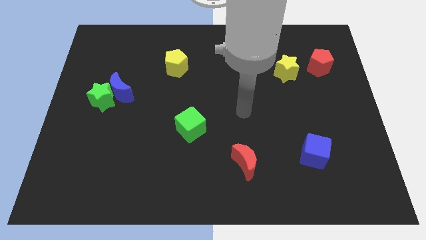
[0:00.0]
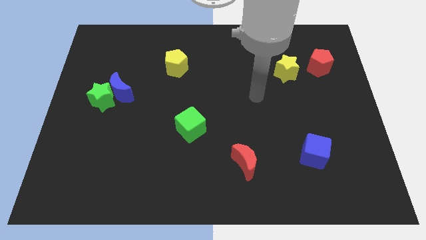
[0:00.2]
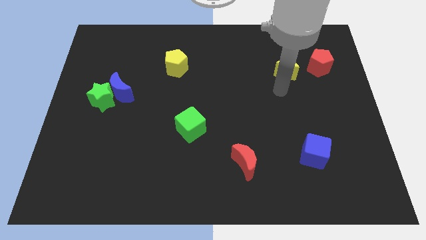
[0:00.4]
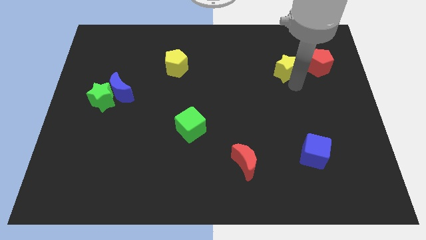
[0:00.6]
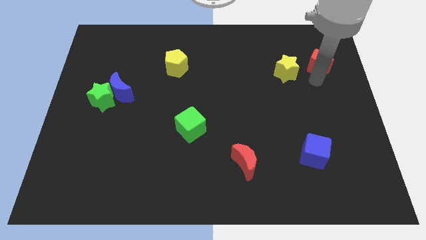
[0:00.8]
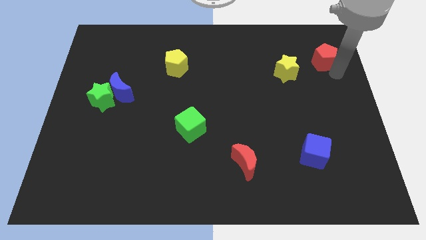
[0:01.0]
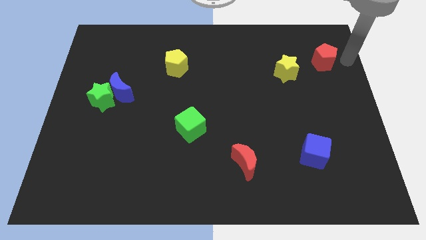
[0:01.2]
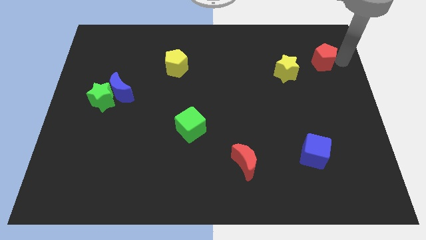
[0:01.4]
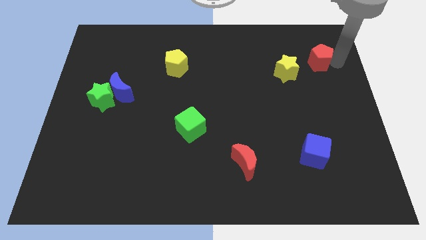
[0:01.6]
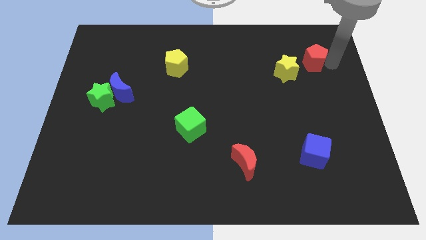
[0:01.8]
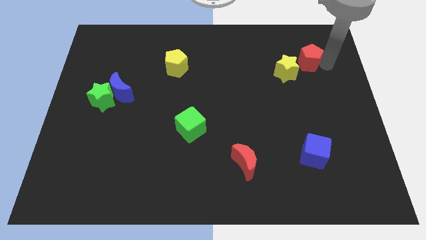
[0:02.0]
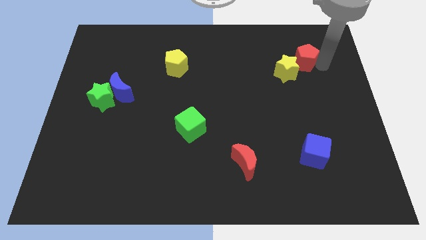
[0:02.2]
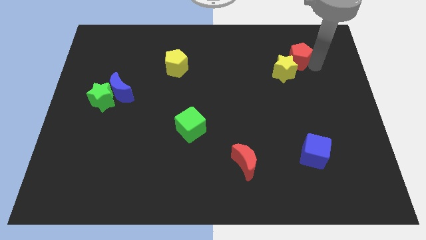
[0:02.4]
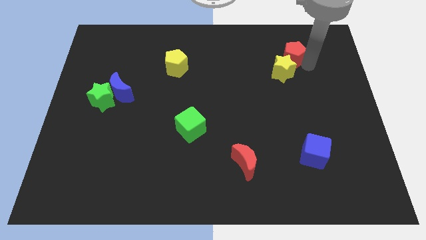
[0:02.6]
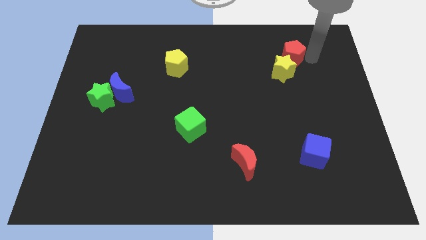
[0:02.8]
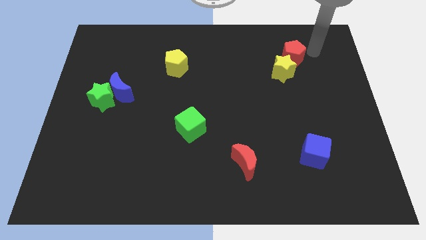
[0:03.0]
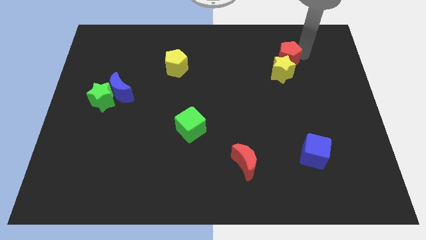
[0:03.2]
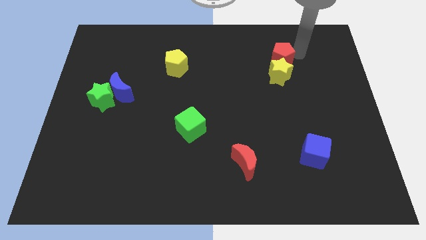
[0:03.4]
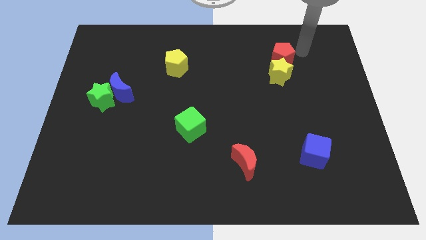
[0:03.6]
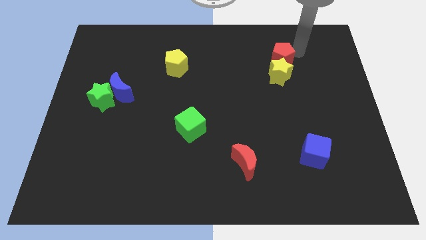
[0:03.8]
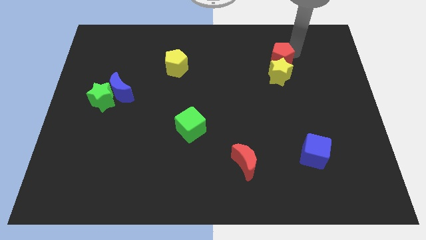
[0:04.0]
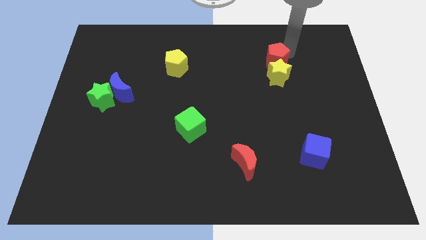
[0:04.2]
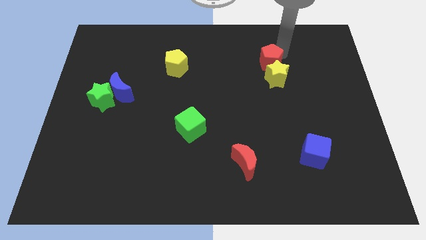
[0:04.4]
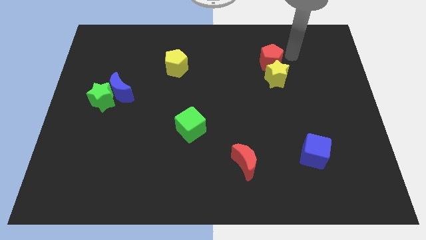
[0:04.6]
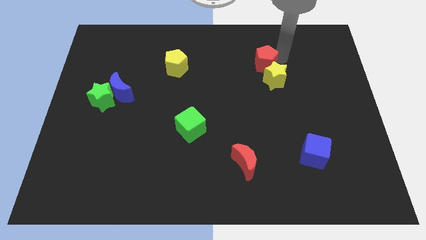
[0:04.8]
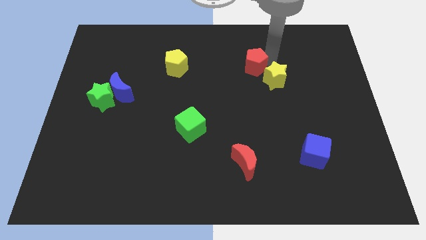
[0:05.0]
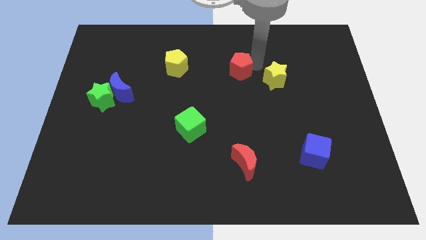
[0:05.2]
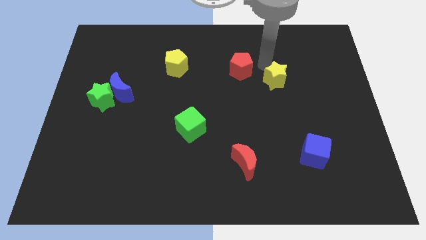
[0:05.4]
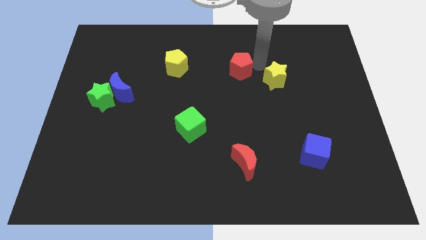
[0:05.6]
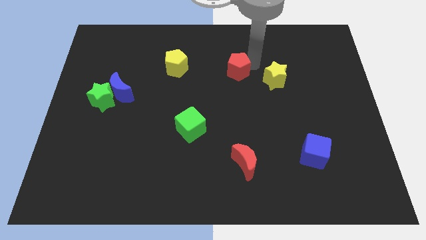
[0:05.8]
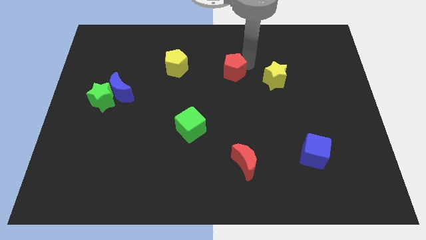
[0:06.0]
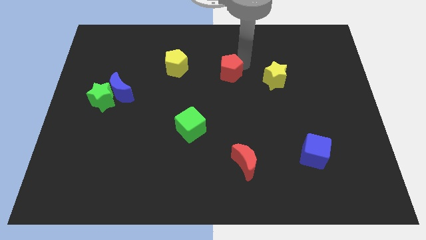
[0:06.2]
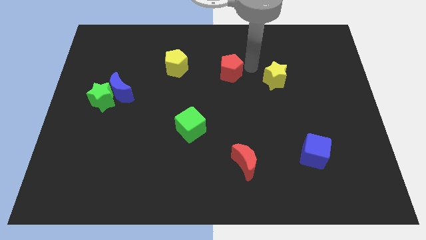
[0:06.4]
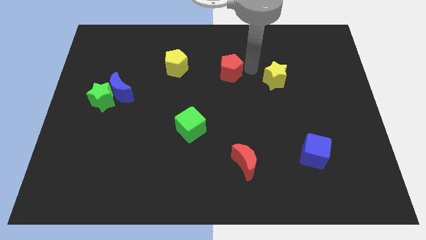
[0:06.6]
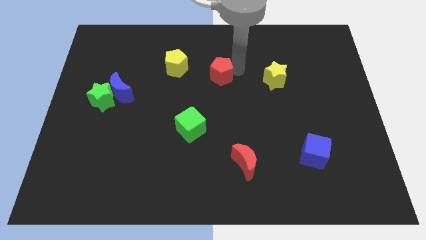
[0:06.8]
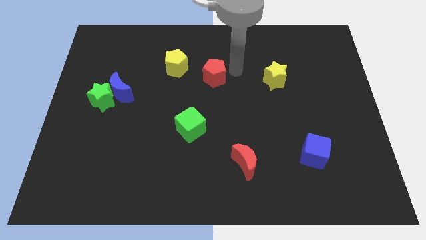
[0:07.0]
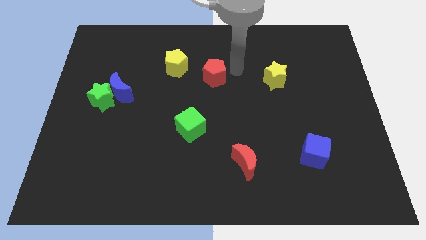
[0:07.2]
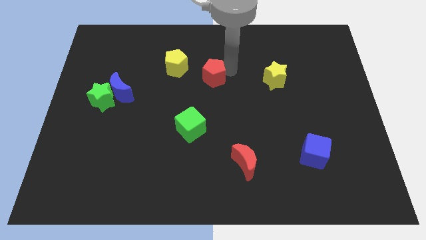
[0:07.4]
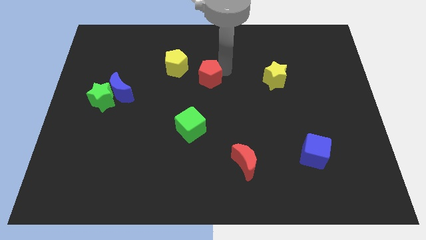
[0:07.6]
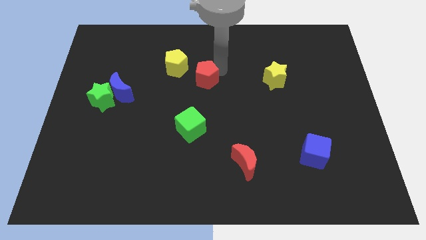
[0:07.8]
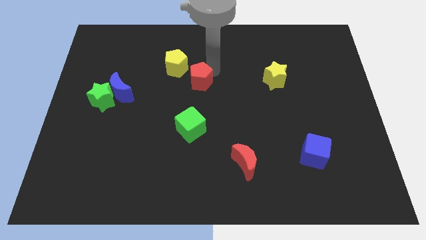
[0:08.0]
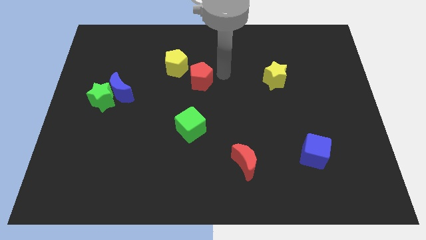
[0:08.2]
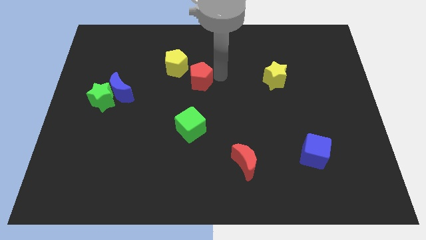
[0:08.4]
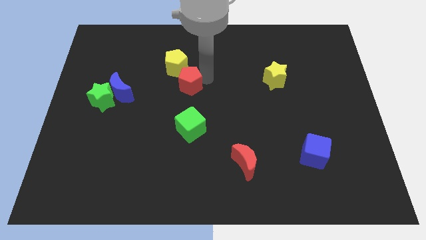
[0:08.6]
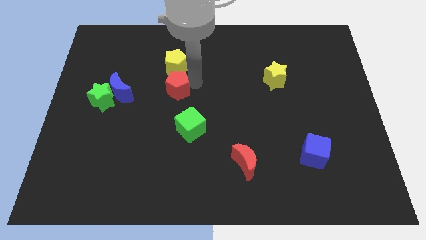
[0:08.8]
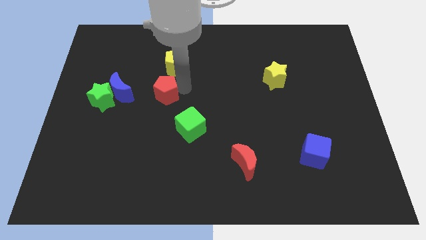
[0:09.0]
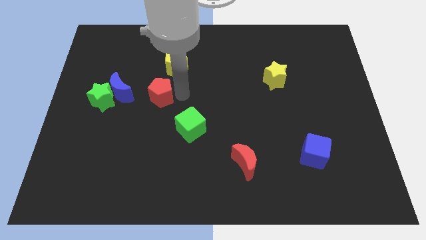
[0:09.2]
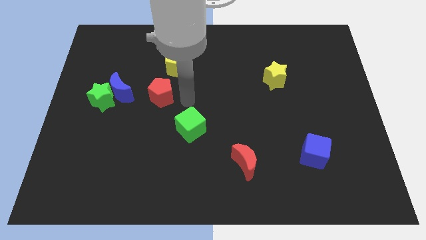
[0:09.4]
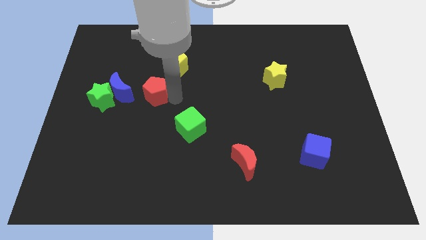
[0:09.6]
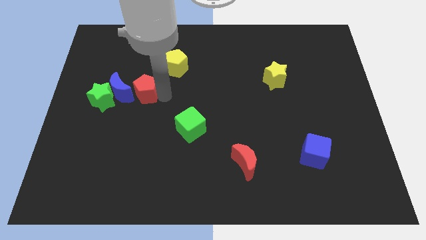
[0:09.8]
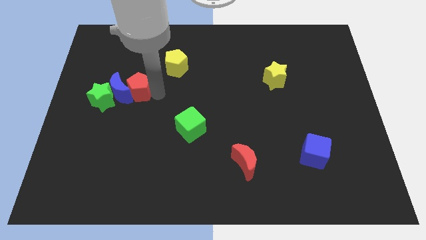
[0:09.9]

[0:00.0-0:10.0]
move the red pentagon close to the blue moon

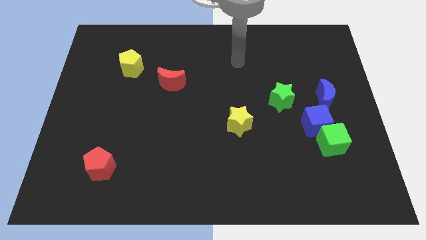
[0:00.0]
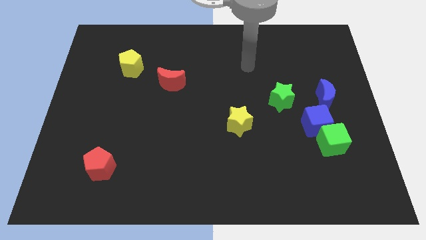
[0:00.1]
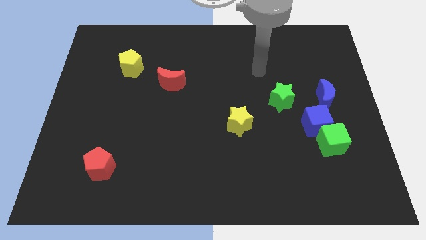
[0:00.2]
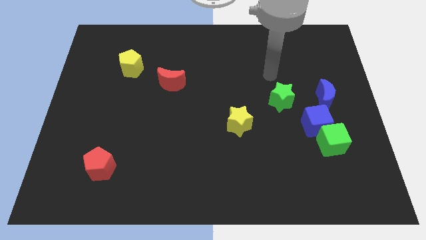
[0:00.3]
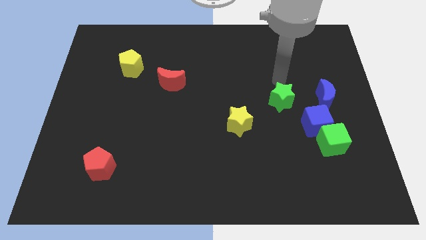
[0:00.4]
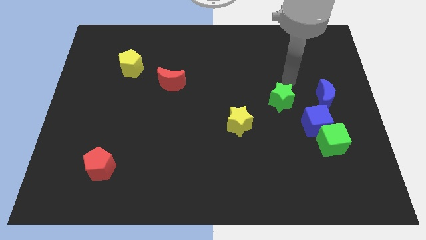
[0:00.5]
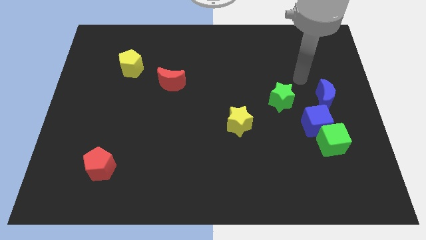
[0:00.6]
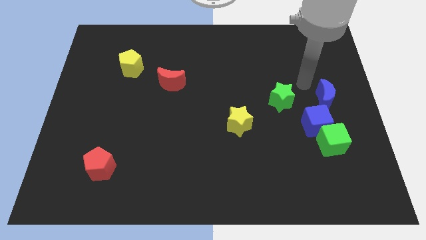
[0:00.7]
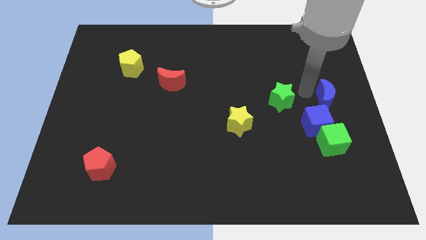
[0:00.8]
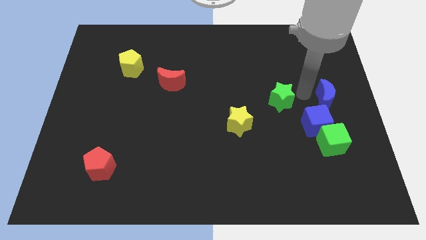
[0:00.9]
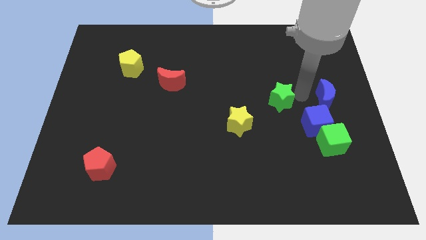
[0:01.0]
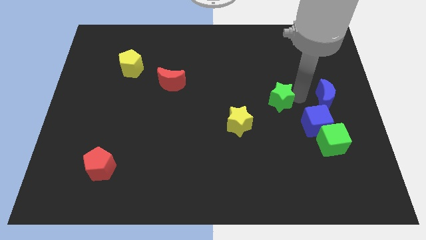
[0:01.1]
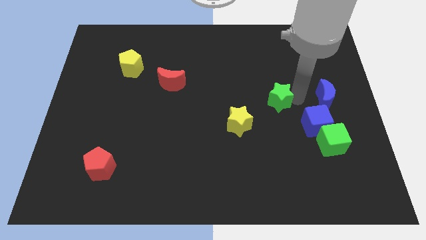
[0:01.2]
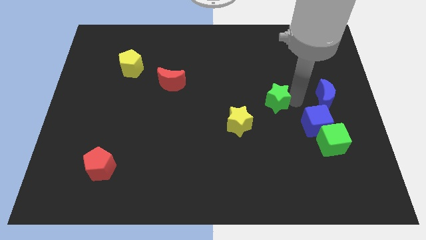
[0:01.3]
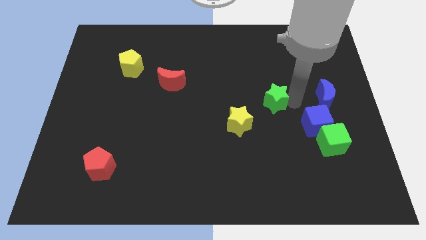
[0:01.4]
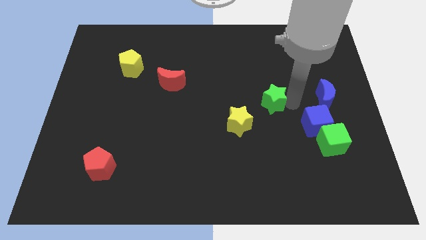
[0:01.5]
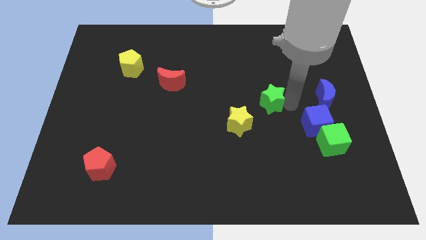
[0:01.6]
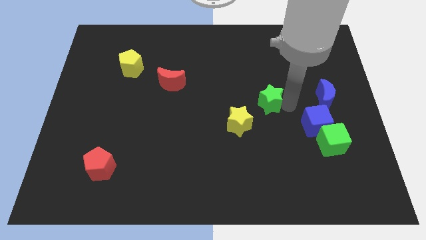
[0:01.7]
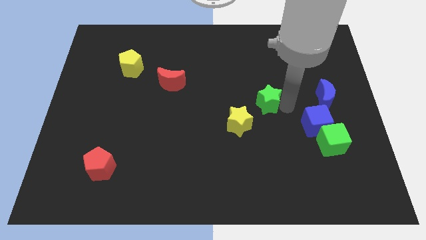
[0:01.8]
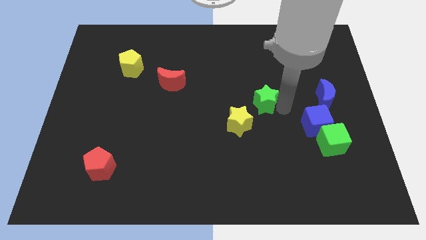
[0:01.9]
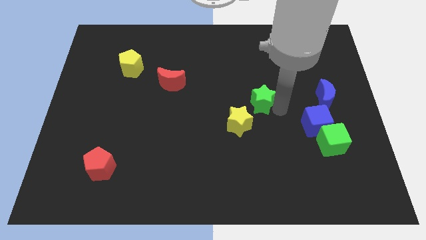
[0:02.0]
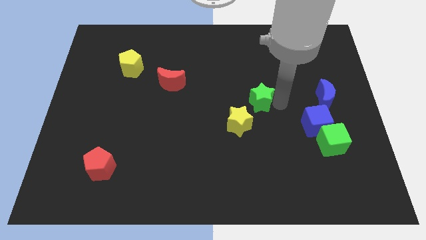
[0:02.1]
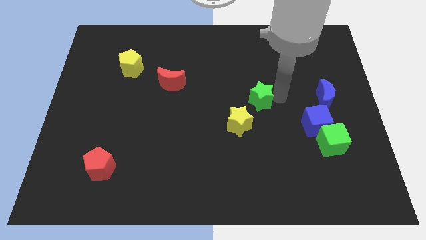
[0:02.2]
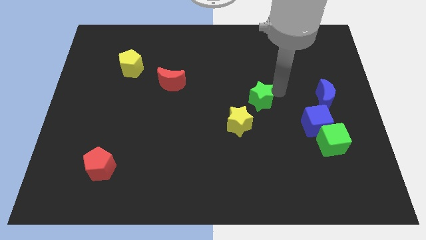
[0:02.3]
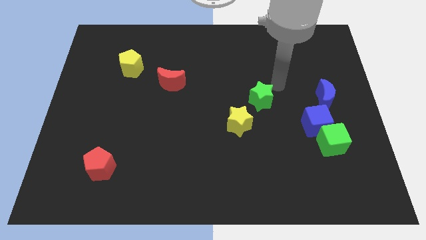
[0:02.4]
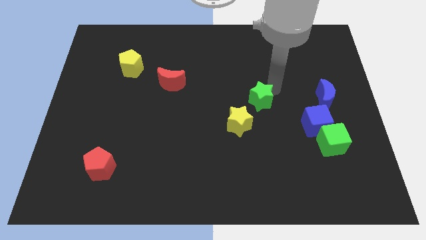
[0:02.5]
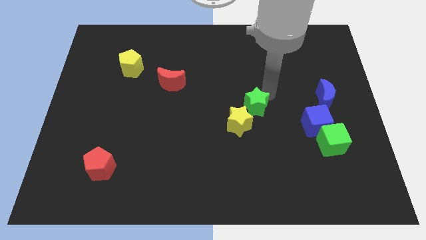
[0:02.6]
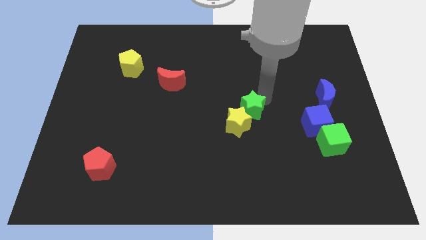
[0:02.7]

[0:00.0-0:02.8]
put the green star next to the yellow star
